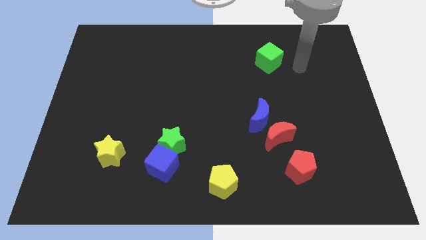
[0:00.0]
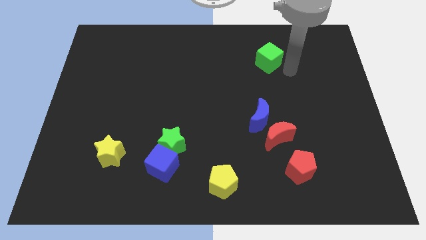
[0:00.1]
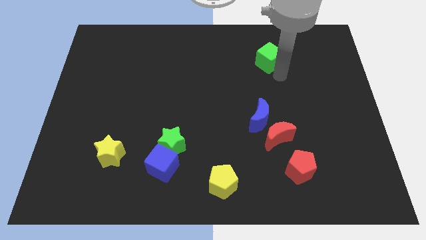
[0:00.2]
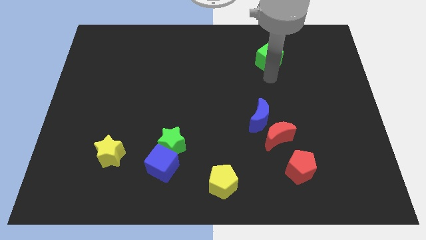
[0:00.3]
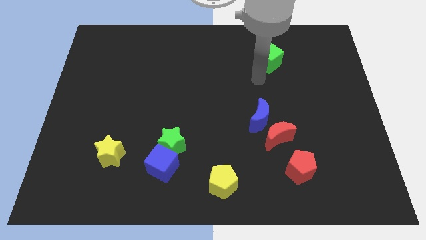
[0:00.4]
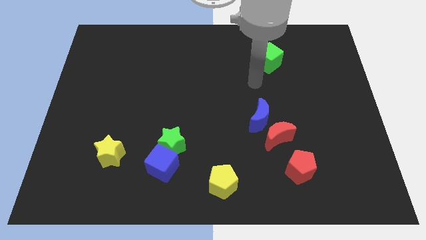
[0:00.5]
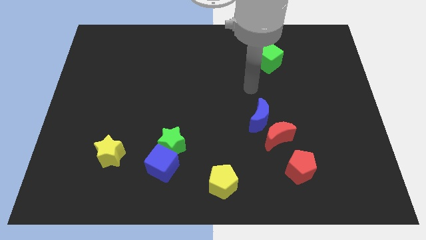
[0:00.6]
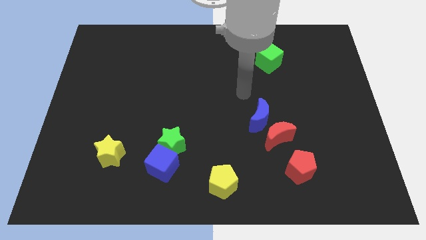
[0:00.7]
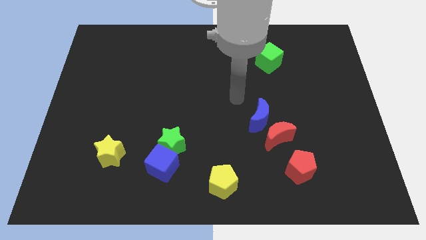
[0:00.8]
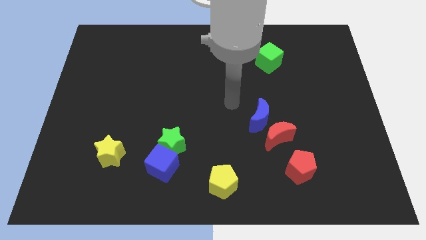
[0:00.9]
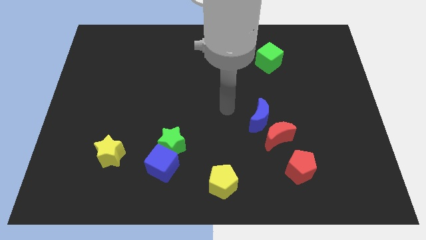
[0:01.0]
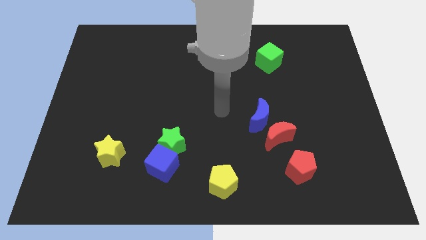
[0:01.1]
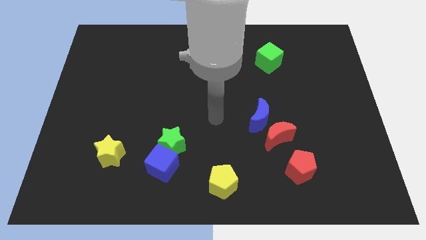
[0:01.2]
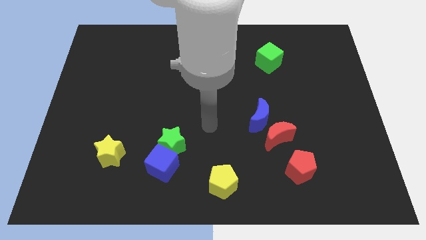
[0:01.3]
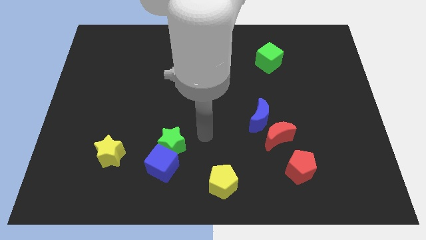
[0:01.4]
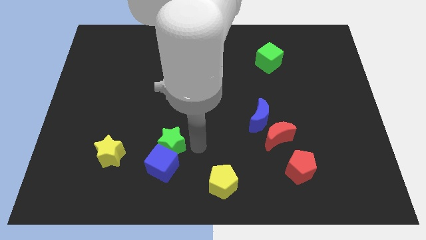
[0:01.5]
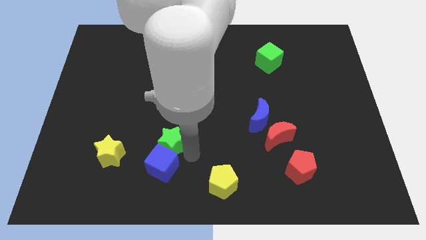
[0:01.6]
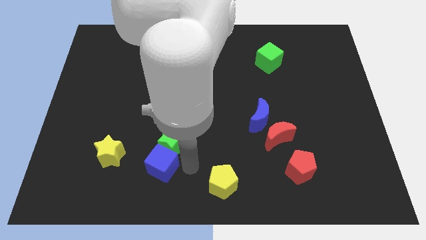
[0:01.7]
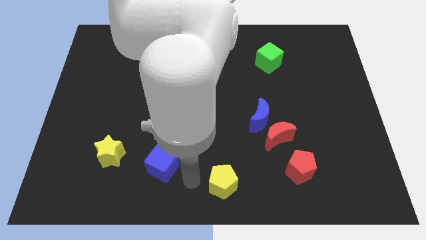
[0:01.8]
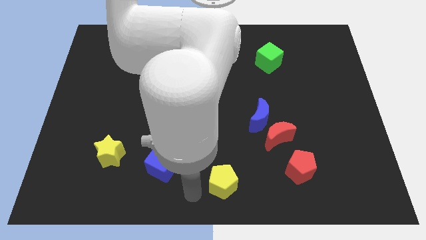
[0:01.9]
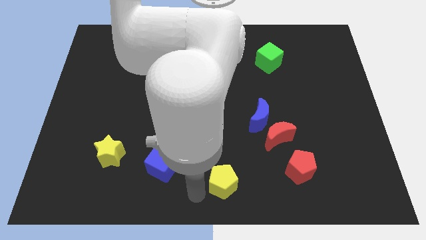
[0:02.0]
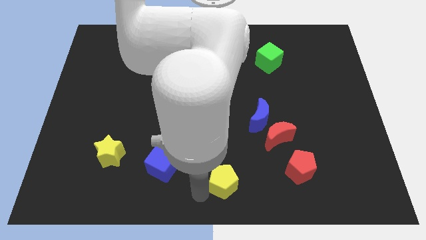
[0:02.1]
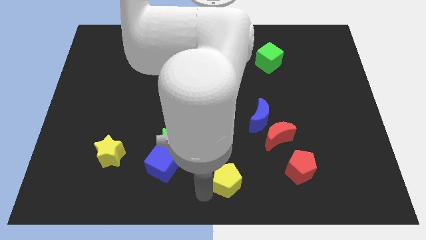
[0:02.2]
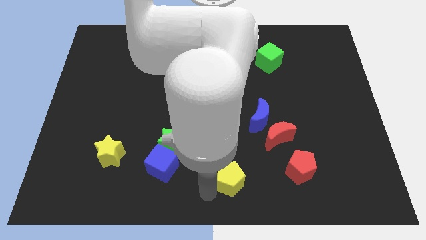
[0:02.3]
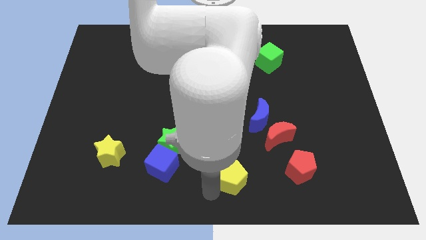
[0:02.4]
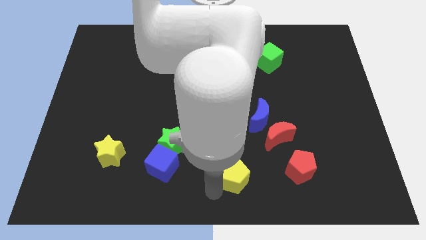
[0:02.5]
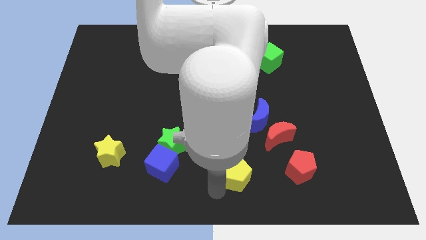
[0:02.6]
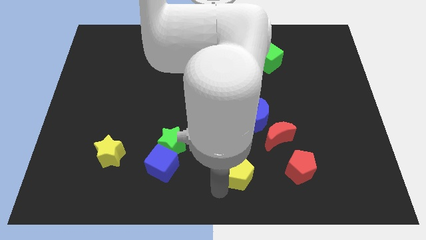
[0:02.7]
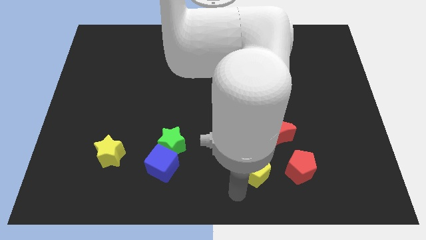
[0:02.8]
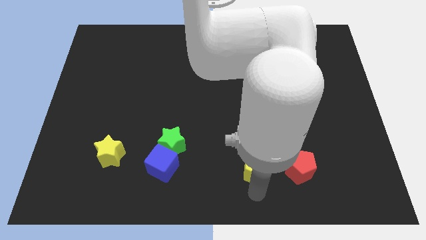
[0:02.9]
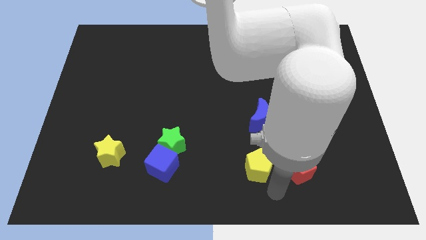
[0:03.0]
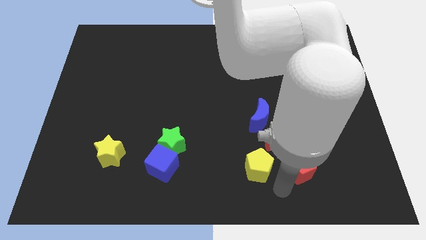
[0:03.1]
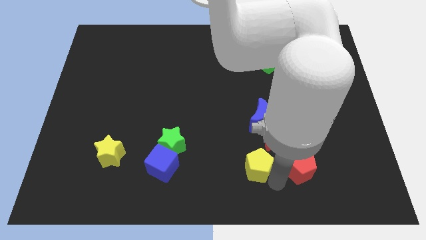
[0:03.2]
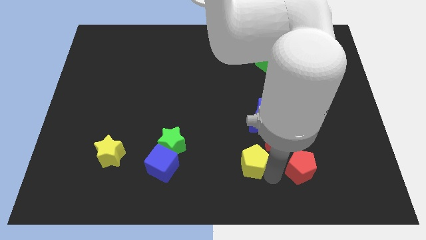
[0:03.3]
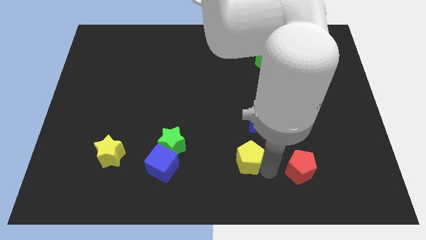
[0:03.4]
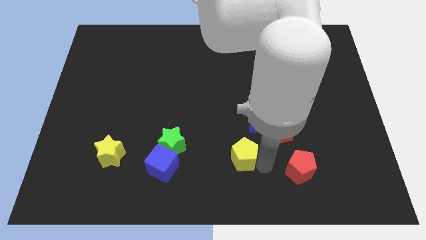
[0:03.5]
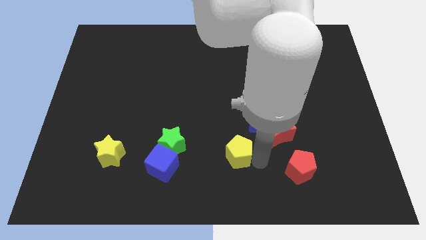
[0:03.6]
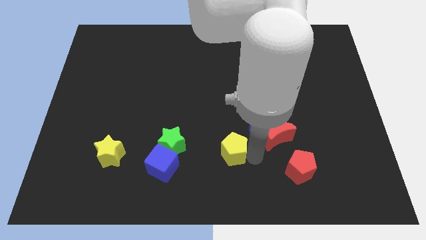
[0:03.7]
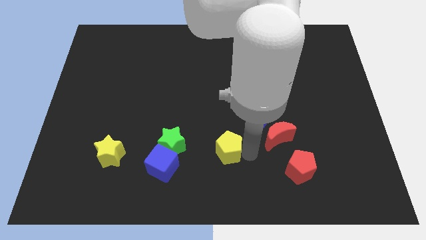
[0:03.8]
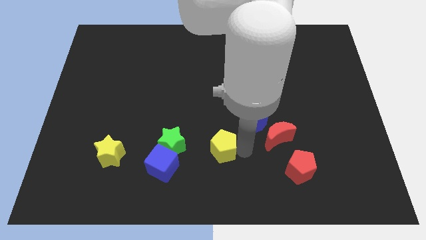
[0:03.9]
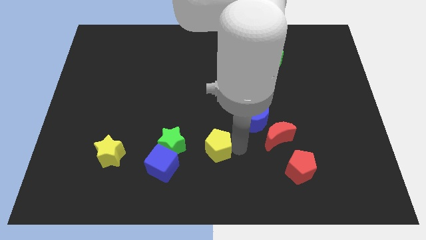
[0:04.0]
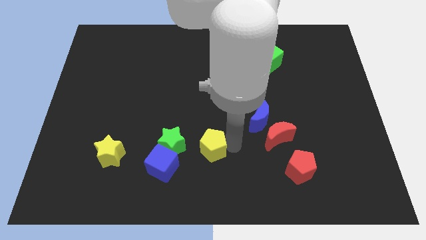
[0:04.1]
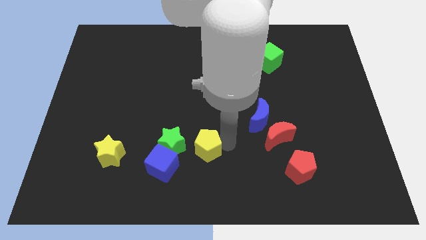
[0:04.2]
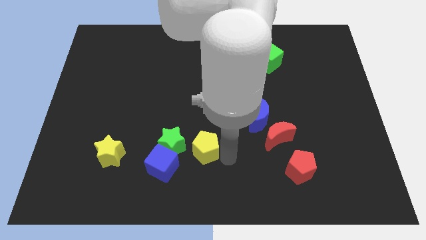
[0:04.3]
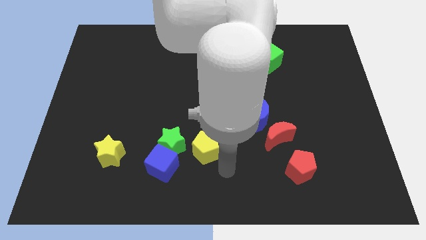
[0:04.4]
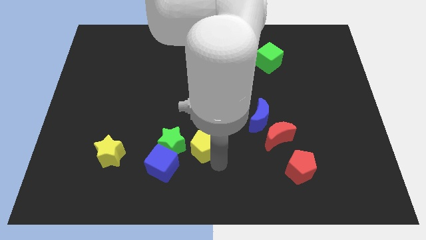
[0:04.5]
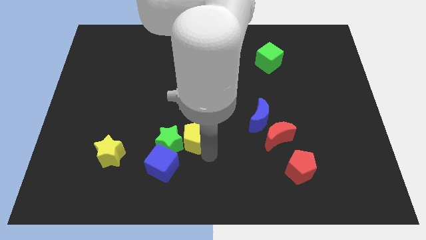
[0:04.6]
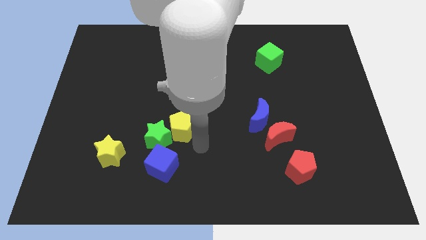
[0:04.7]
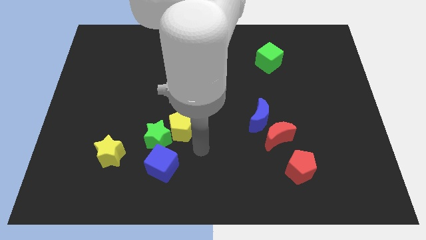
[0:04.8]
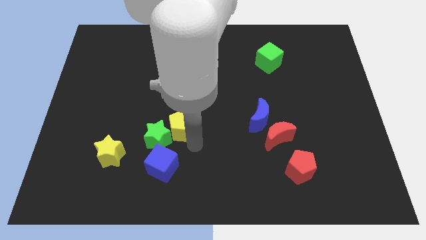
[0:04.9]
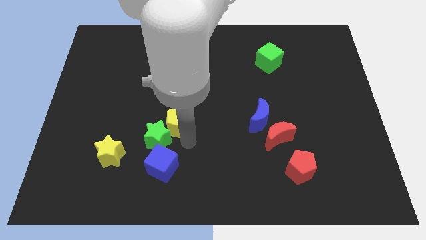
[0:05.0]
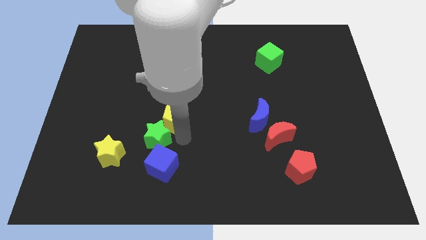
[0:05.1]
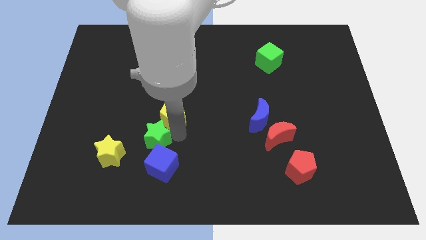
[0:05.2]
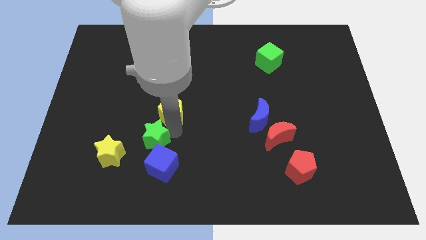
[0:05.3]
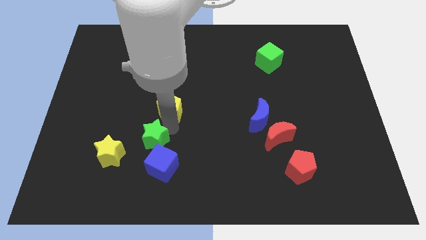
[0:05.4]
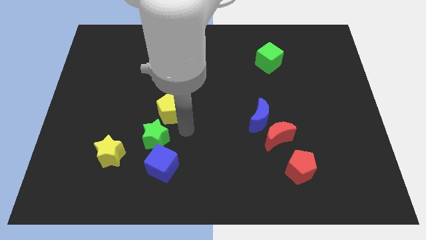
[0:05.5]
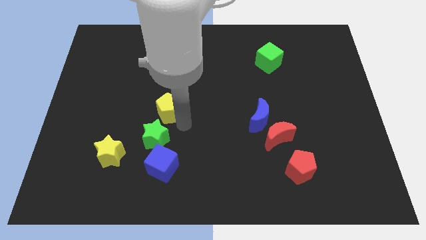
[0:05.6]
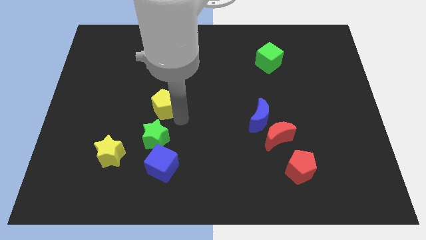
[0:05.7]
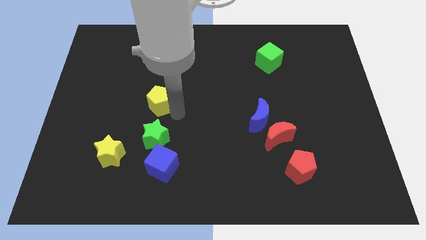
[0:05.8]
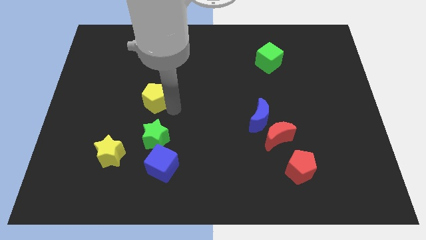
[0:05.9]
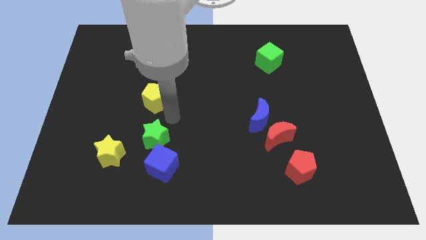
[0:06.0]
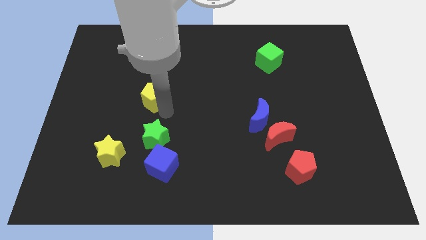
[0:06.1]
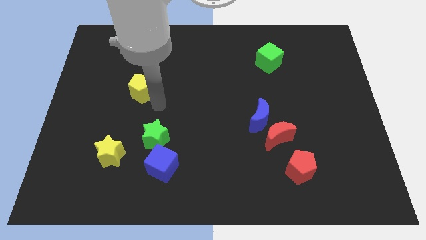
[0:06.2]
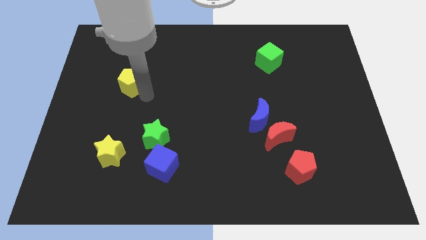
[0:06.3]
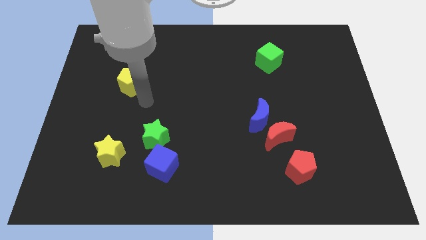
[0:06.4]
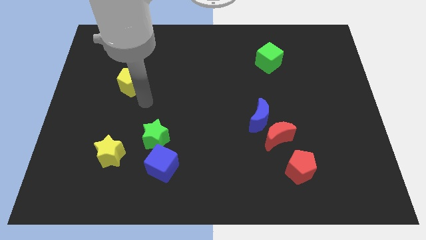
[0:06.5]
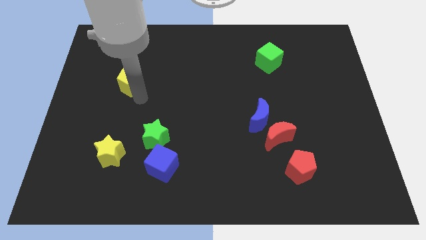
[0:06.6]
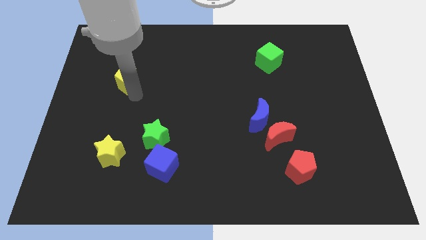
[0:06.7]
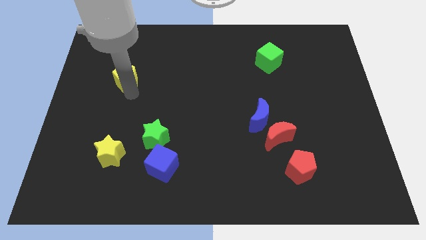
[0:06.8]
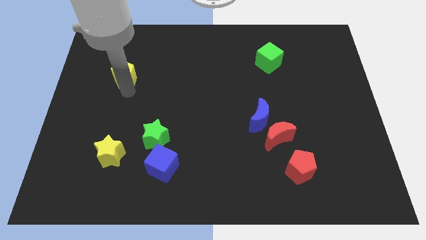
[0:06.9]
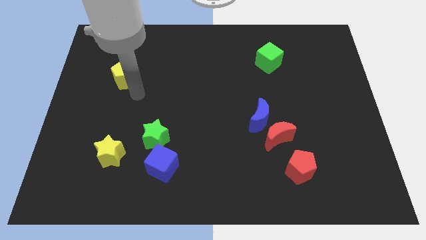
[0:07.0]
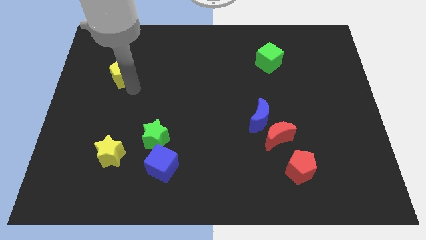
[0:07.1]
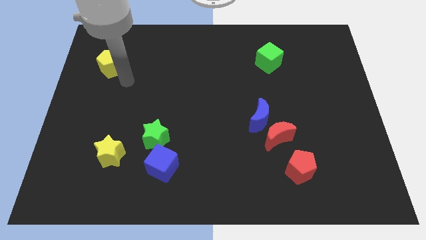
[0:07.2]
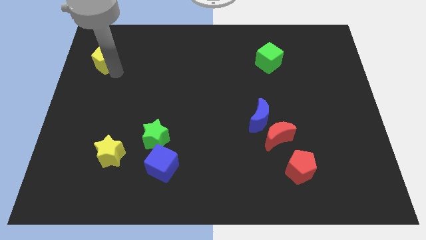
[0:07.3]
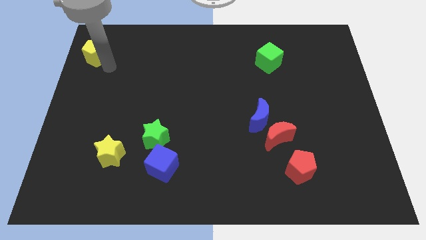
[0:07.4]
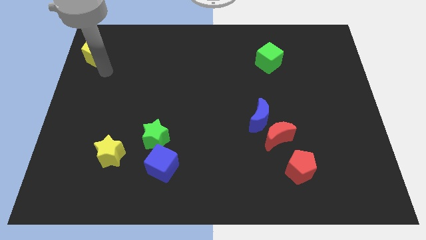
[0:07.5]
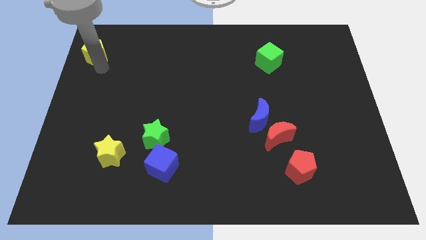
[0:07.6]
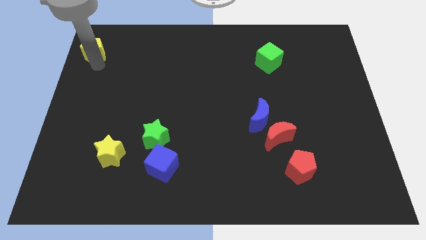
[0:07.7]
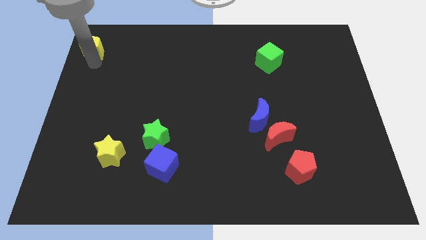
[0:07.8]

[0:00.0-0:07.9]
push the yellow pentagon to the top left

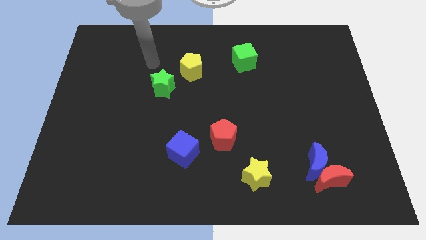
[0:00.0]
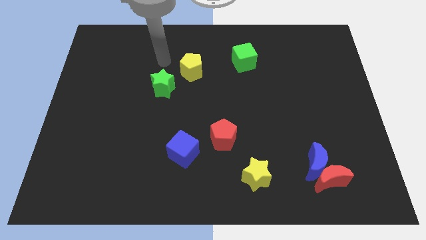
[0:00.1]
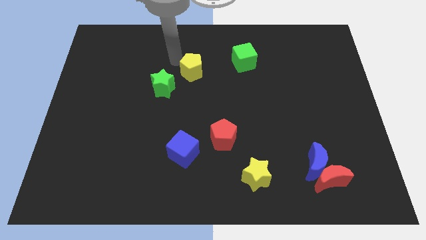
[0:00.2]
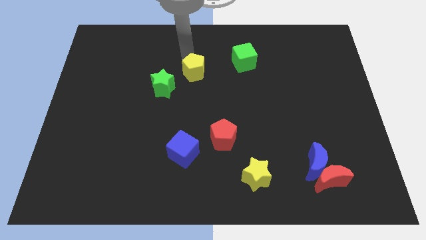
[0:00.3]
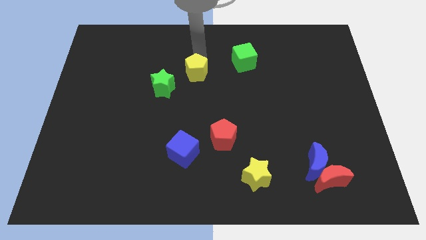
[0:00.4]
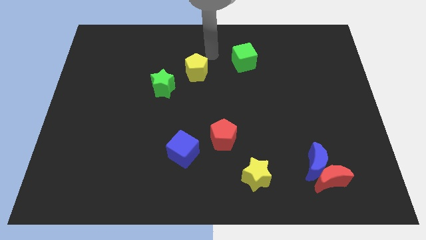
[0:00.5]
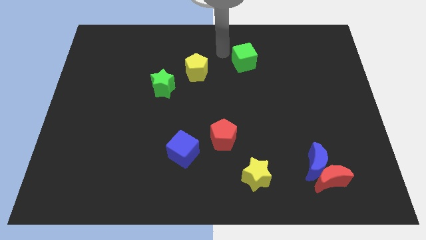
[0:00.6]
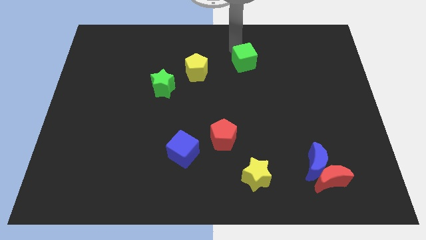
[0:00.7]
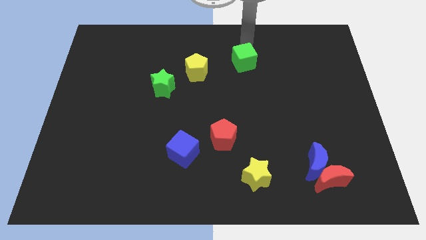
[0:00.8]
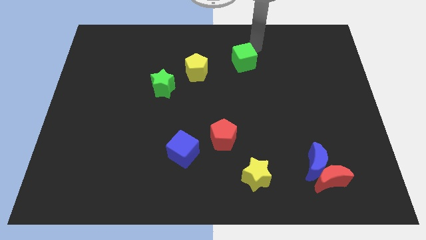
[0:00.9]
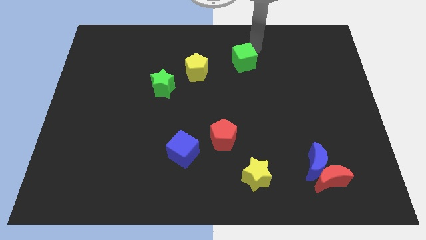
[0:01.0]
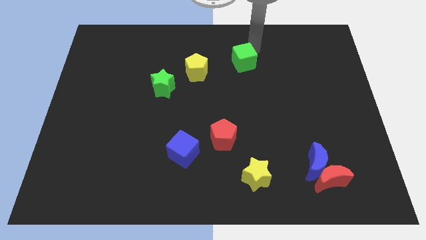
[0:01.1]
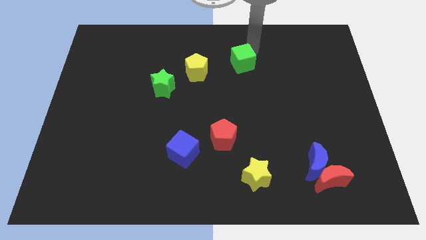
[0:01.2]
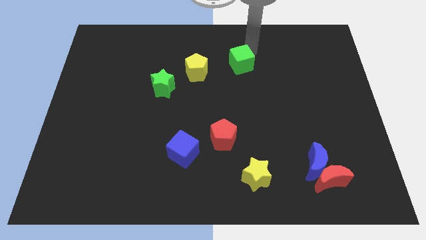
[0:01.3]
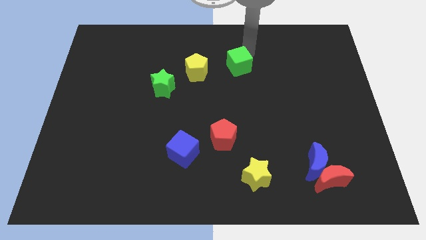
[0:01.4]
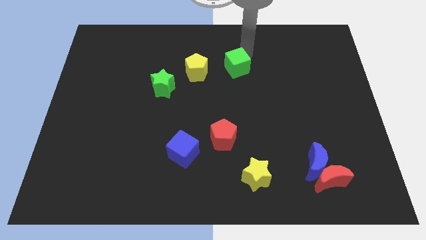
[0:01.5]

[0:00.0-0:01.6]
slide the green cube to the center of the board
